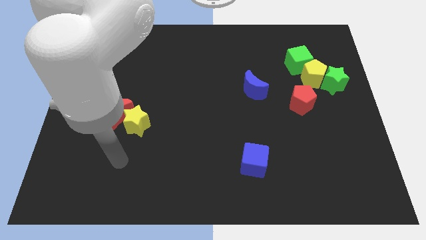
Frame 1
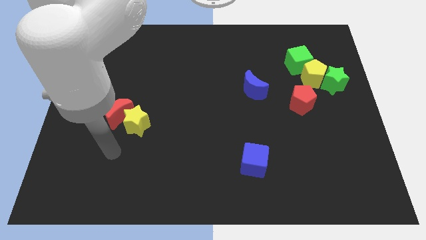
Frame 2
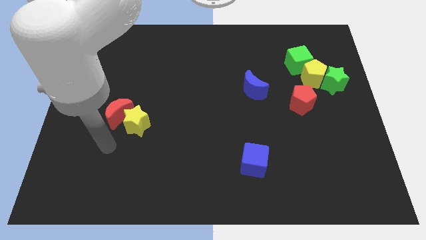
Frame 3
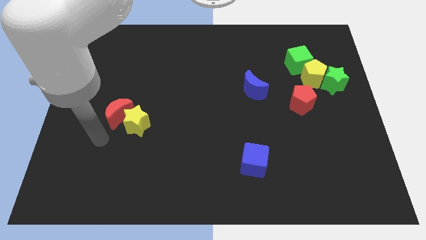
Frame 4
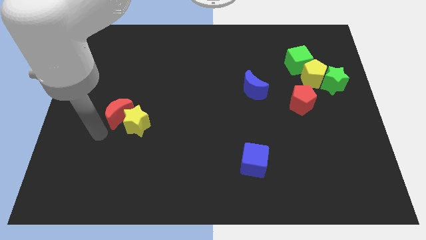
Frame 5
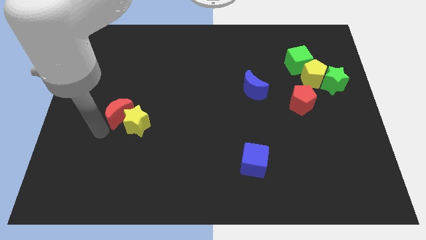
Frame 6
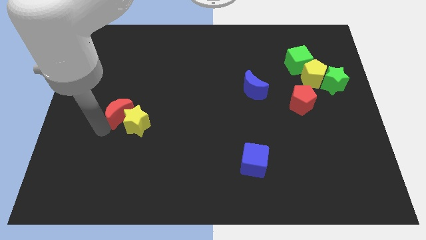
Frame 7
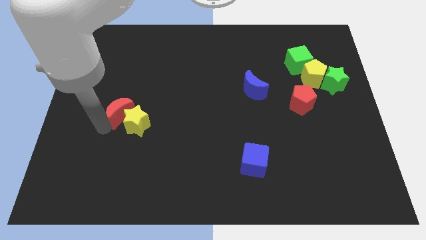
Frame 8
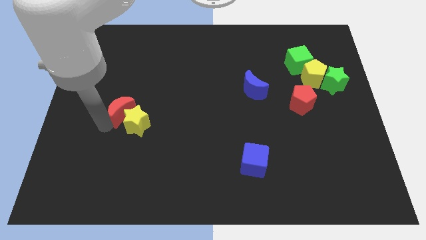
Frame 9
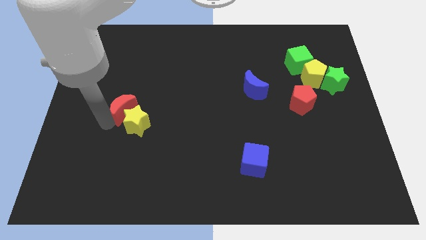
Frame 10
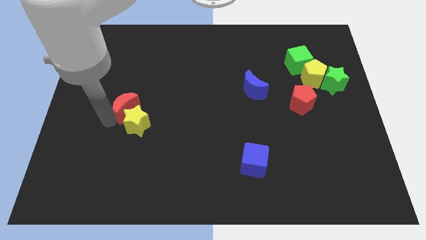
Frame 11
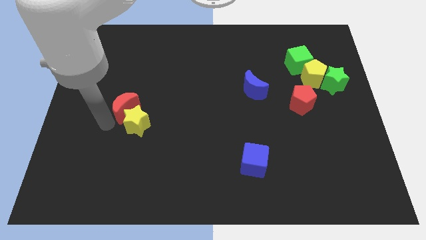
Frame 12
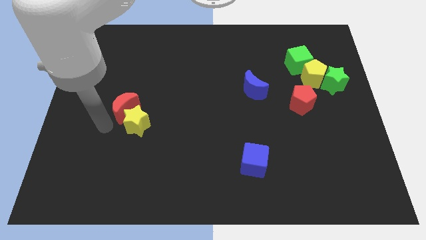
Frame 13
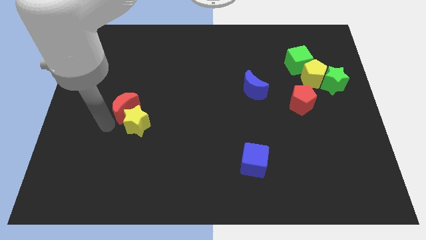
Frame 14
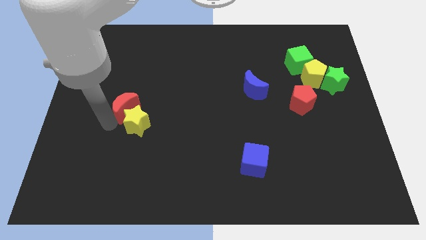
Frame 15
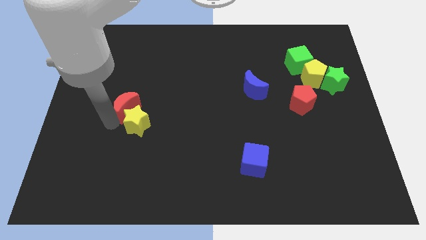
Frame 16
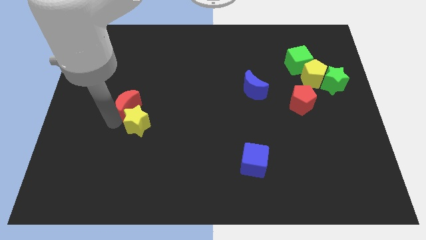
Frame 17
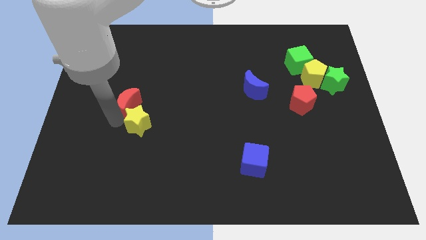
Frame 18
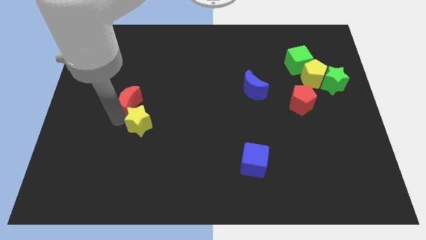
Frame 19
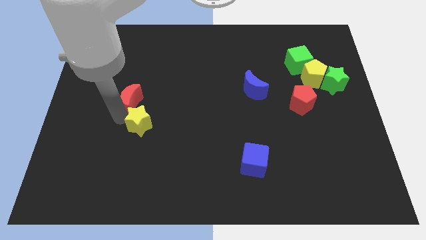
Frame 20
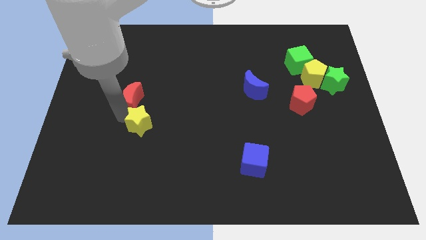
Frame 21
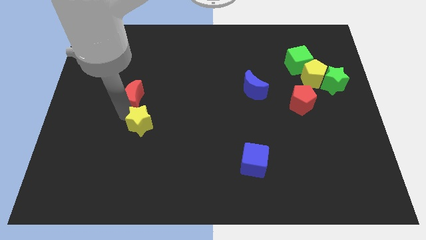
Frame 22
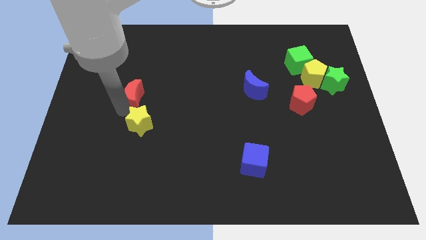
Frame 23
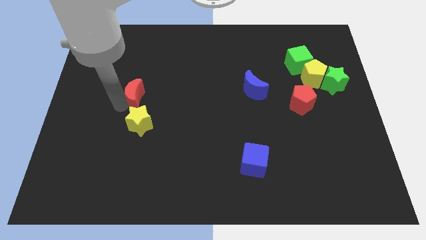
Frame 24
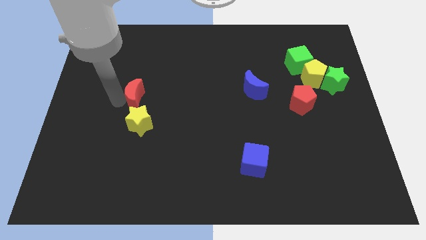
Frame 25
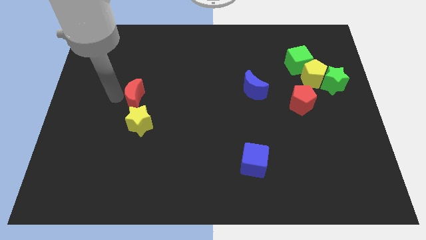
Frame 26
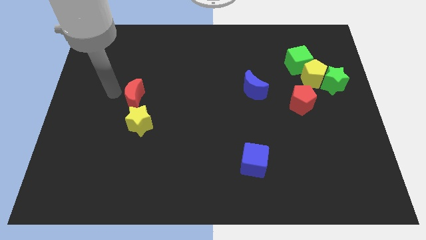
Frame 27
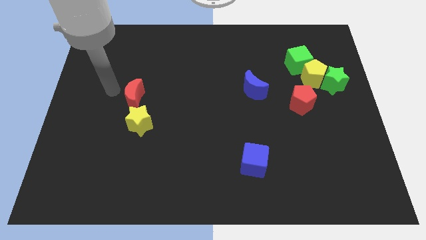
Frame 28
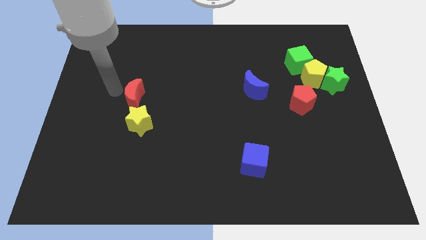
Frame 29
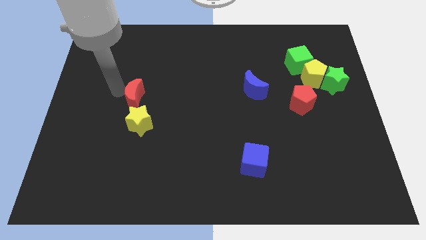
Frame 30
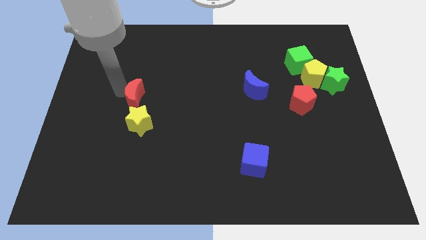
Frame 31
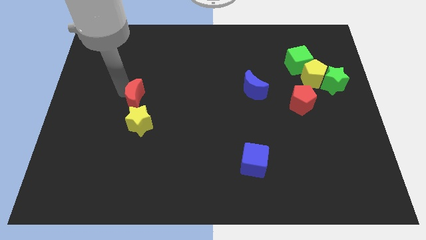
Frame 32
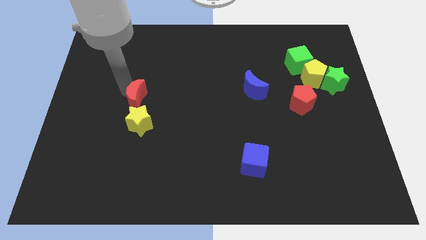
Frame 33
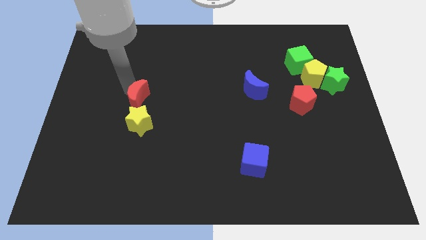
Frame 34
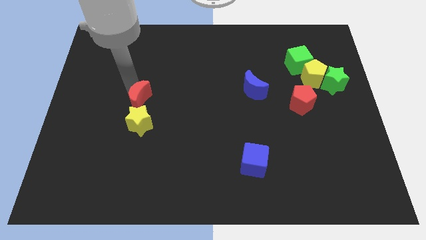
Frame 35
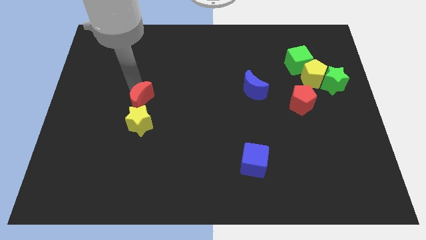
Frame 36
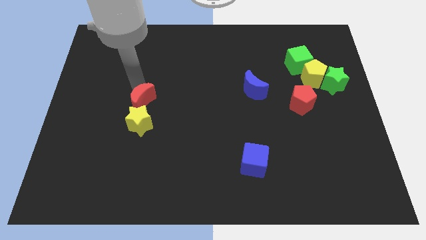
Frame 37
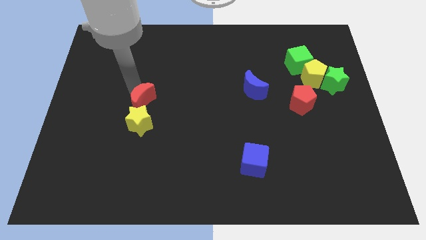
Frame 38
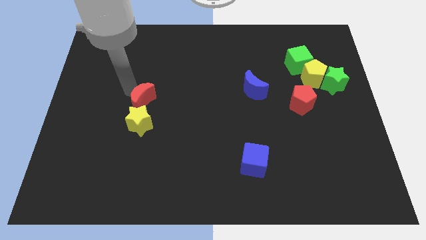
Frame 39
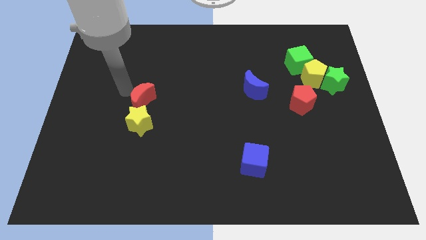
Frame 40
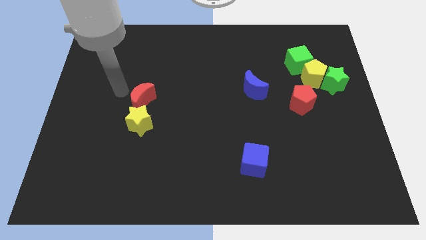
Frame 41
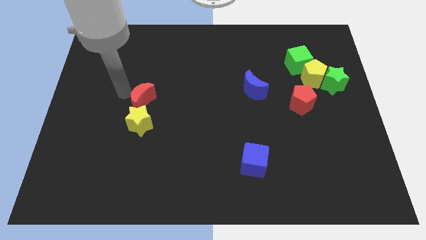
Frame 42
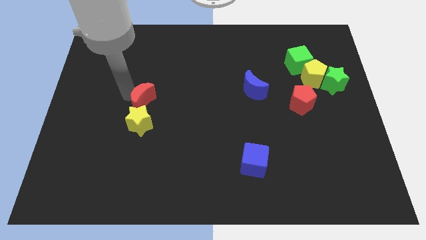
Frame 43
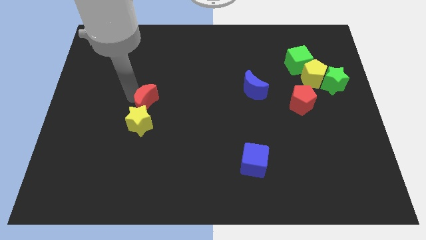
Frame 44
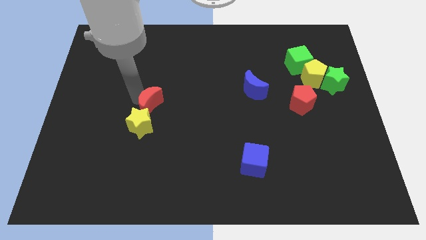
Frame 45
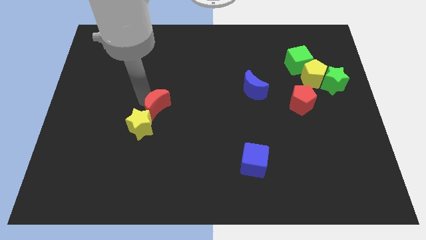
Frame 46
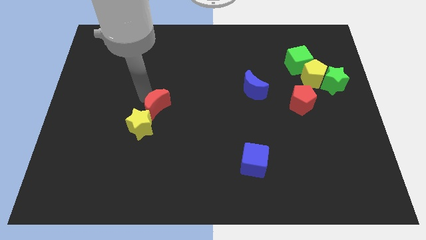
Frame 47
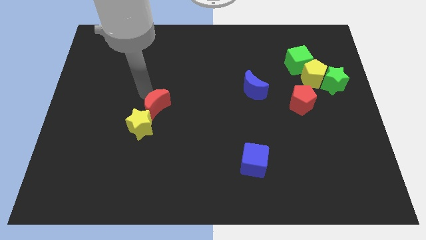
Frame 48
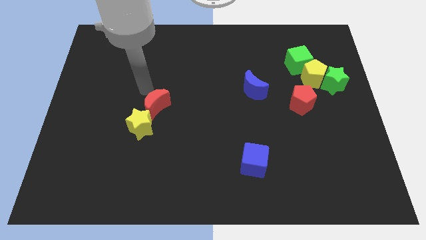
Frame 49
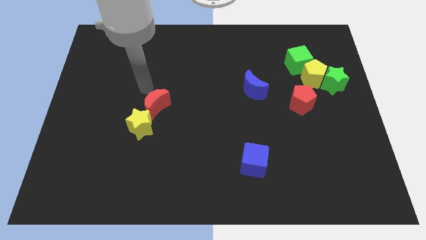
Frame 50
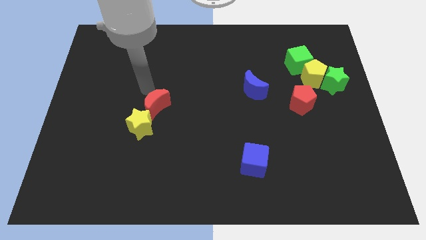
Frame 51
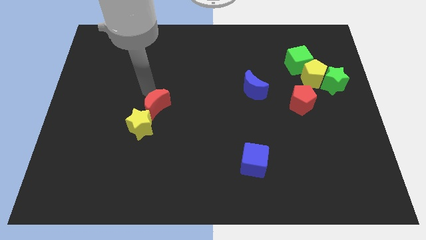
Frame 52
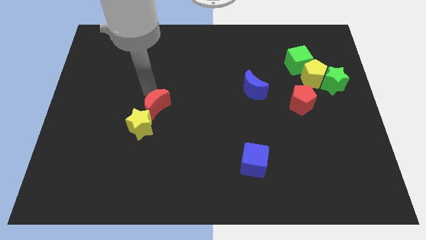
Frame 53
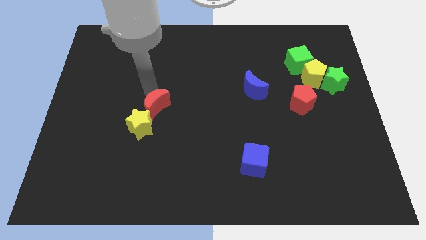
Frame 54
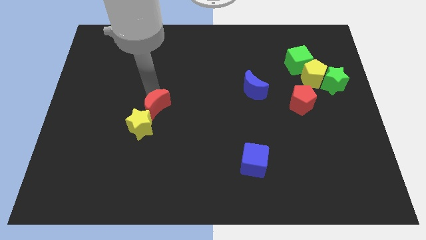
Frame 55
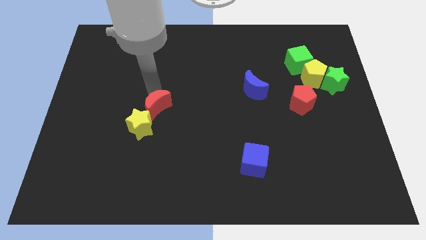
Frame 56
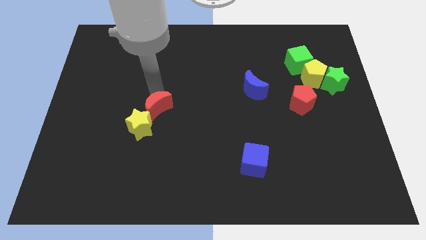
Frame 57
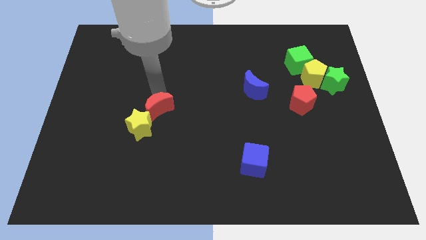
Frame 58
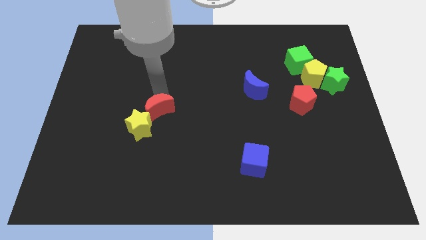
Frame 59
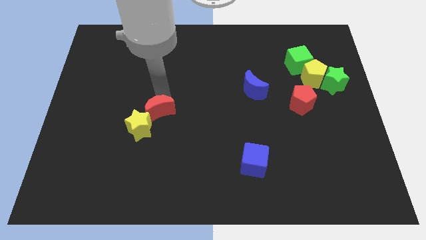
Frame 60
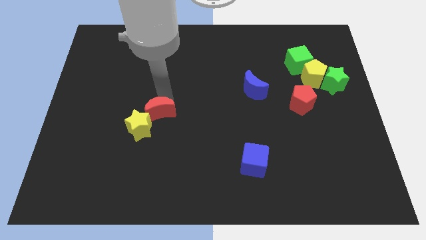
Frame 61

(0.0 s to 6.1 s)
push the red moon to the right of the yellow star
